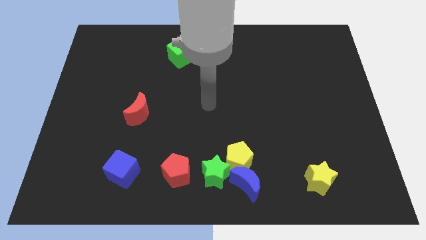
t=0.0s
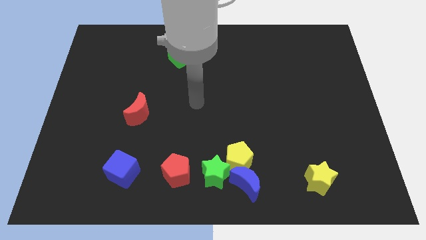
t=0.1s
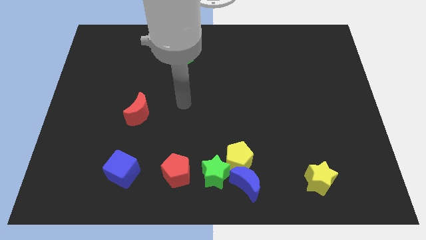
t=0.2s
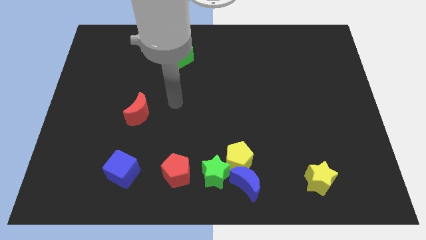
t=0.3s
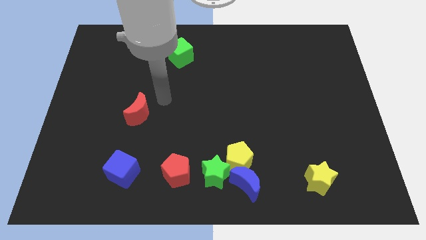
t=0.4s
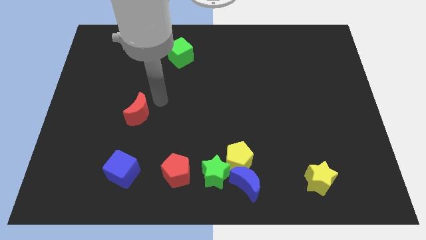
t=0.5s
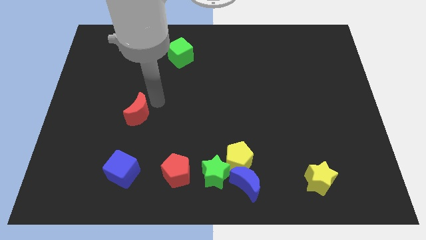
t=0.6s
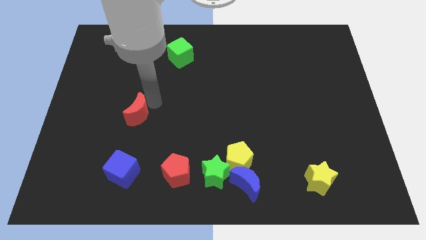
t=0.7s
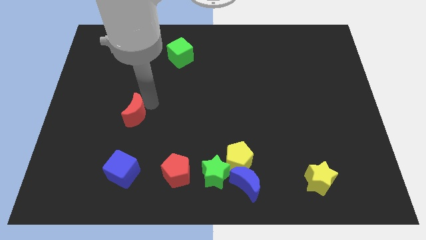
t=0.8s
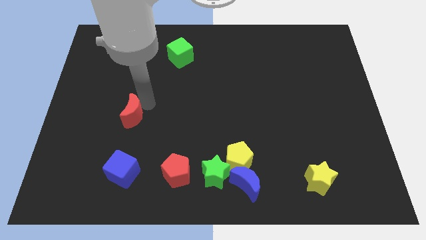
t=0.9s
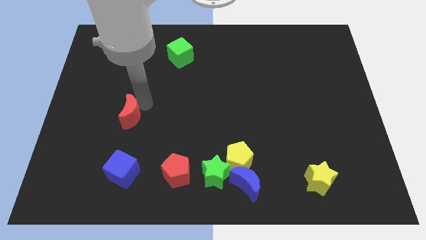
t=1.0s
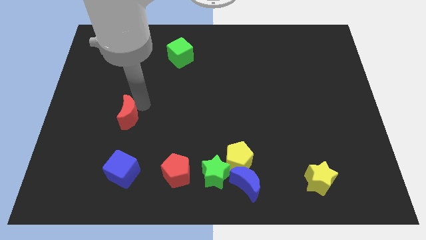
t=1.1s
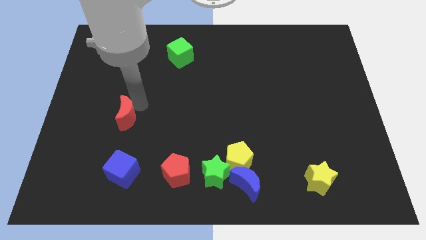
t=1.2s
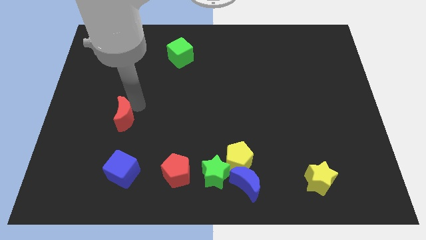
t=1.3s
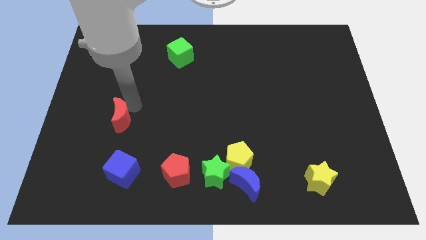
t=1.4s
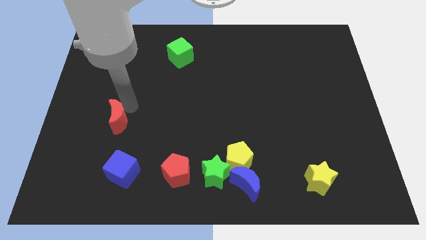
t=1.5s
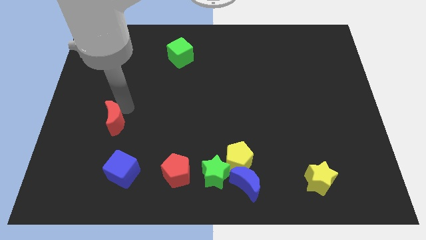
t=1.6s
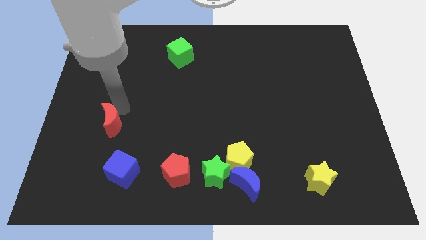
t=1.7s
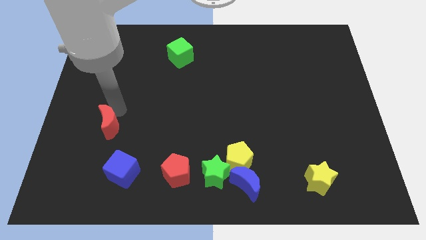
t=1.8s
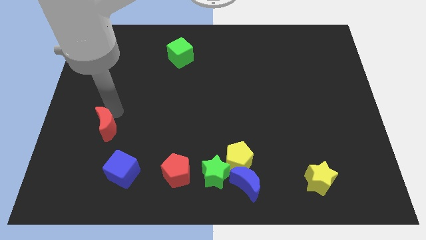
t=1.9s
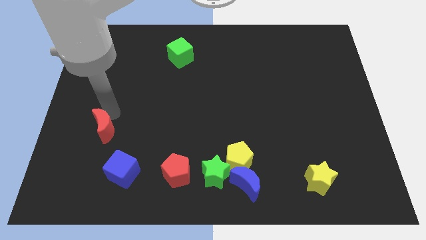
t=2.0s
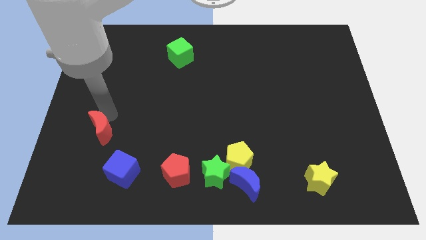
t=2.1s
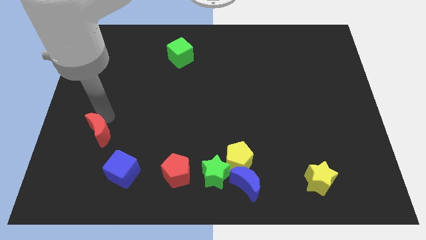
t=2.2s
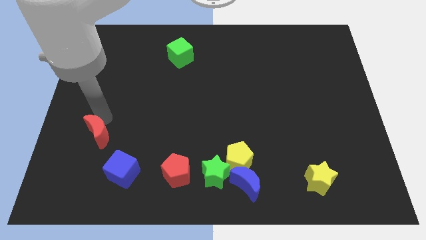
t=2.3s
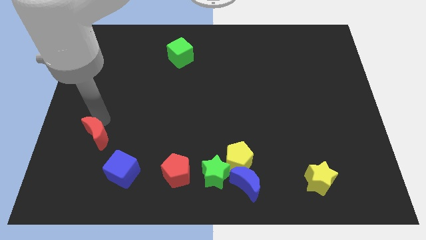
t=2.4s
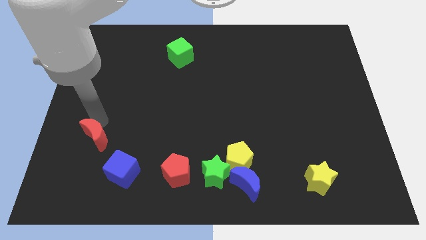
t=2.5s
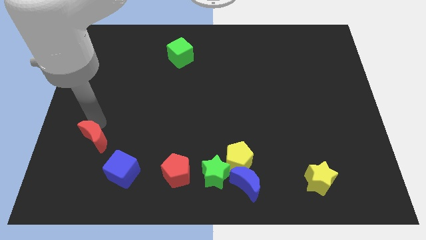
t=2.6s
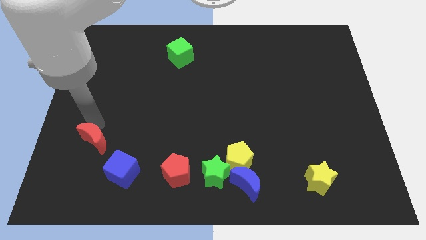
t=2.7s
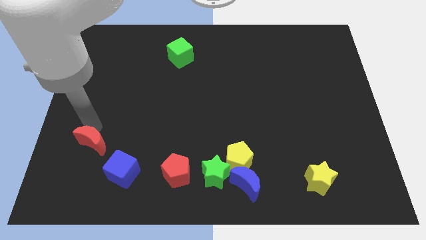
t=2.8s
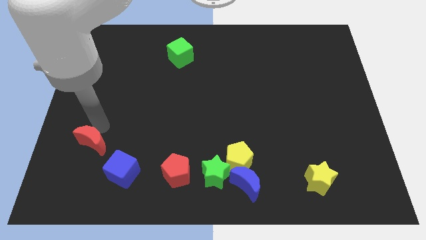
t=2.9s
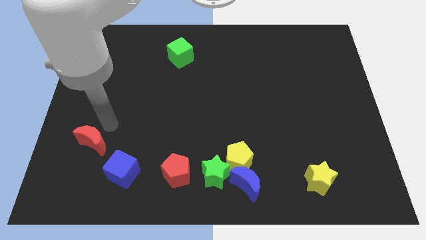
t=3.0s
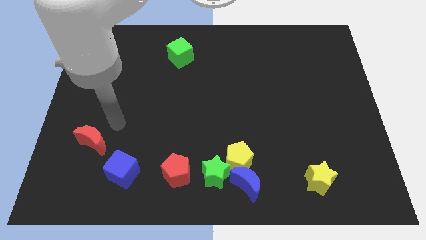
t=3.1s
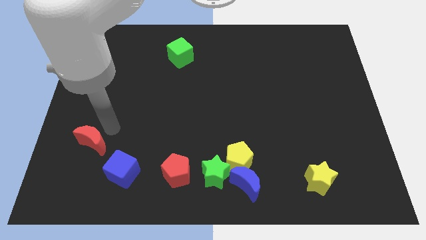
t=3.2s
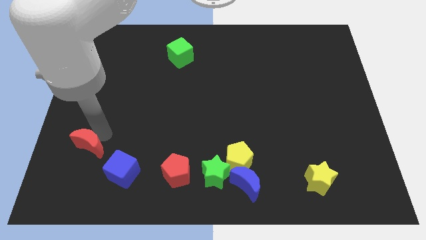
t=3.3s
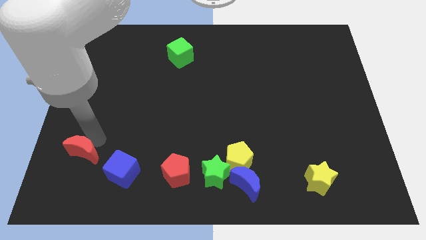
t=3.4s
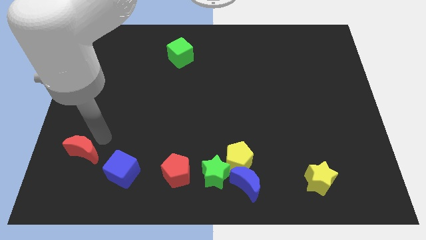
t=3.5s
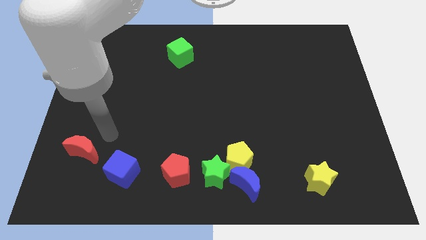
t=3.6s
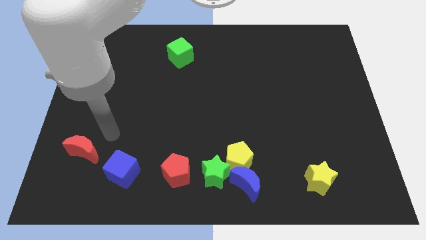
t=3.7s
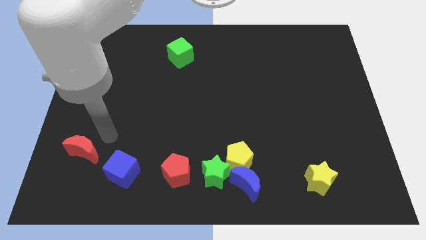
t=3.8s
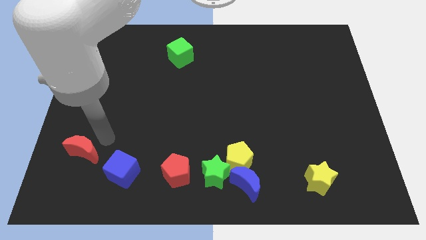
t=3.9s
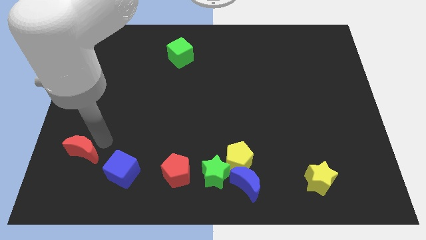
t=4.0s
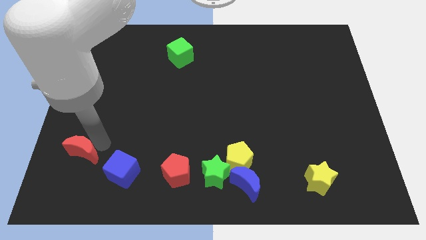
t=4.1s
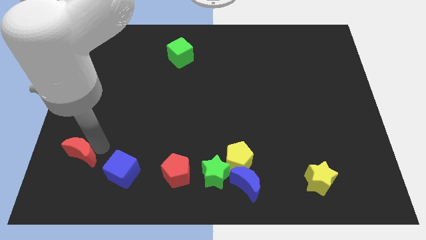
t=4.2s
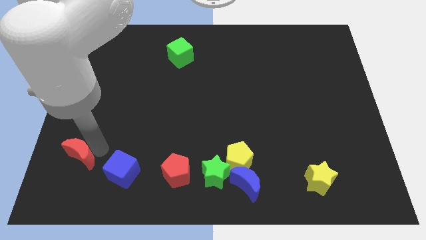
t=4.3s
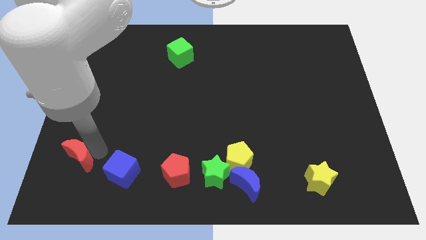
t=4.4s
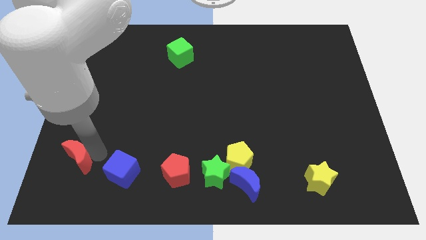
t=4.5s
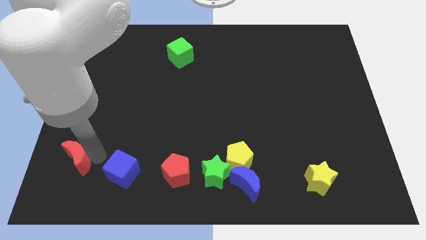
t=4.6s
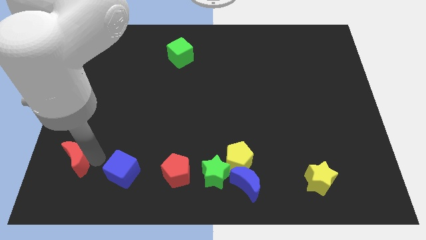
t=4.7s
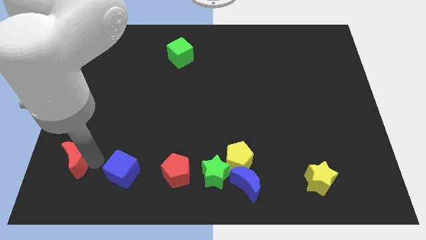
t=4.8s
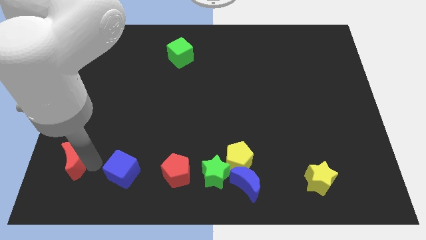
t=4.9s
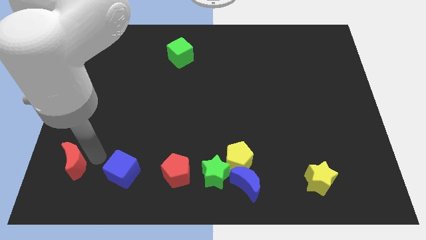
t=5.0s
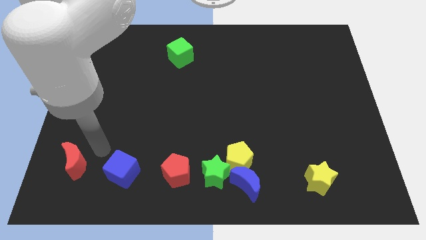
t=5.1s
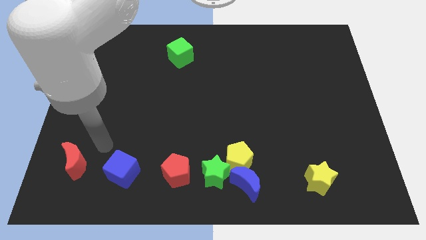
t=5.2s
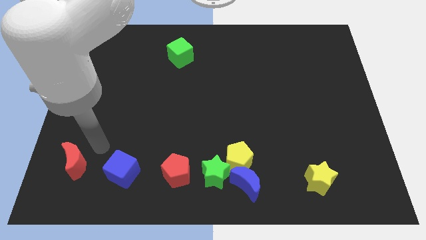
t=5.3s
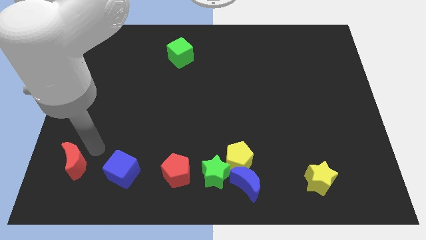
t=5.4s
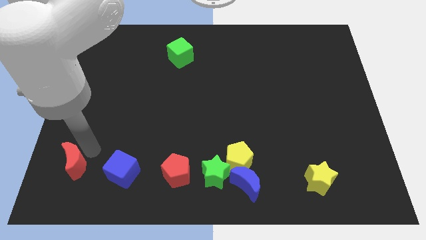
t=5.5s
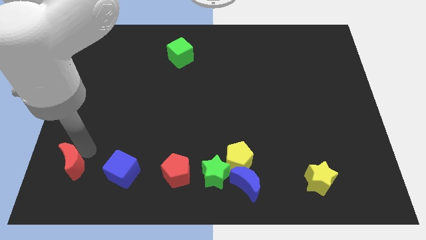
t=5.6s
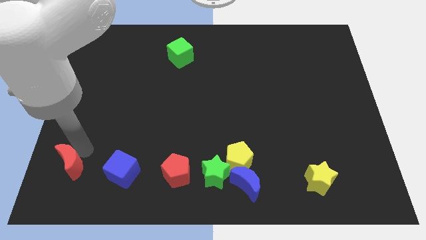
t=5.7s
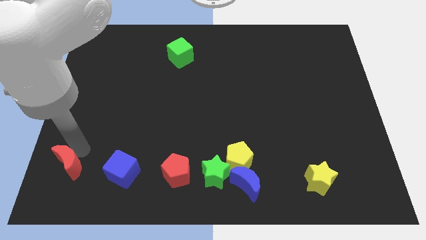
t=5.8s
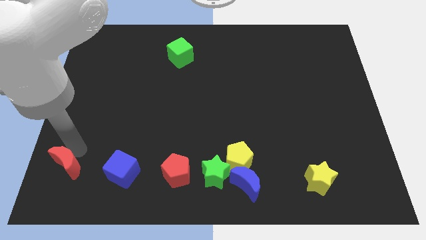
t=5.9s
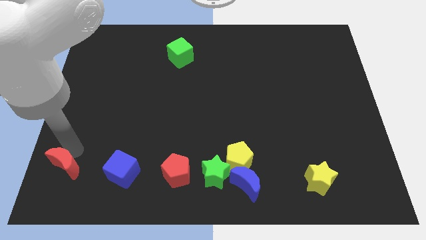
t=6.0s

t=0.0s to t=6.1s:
move the red moon to the bottom left of the board
